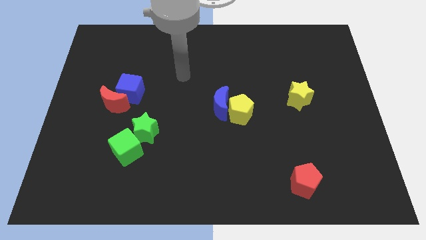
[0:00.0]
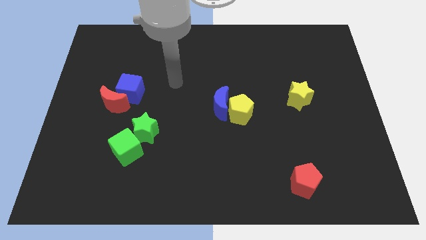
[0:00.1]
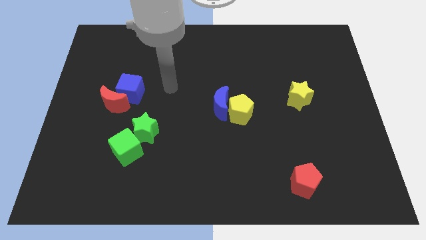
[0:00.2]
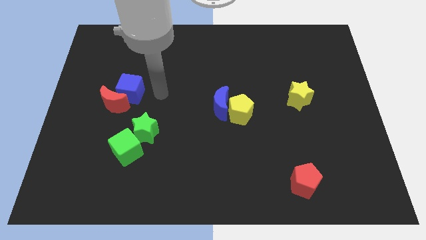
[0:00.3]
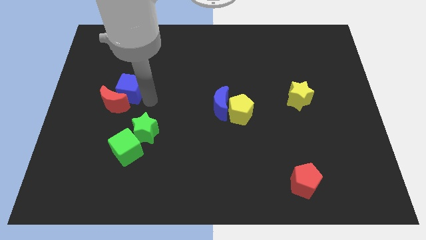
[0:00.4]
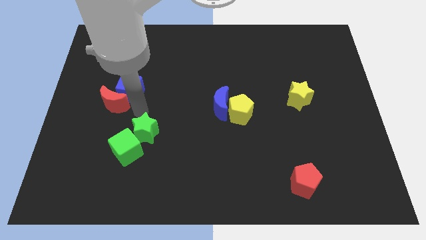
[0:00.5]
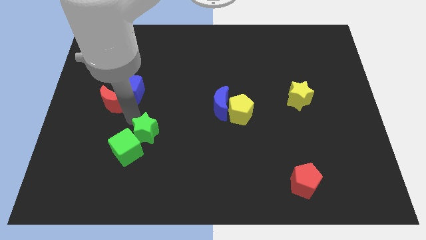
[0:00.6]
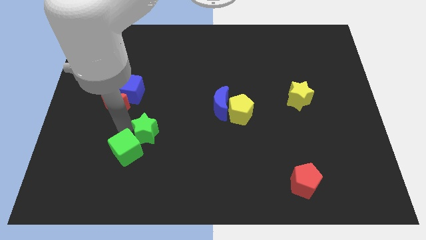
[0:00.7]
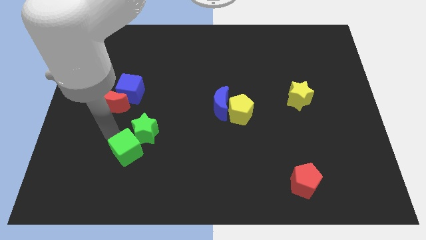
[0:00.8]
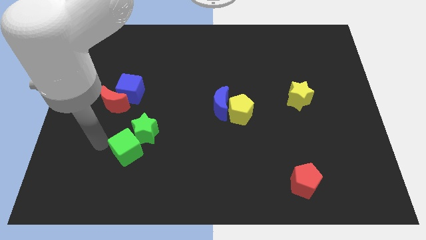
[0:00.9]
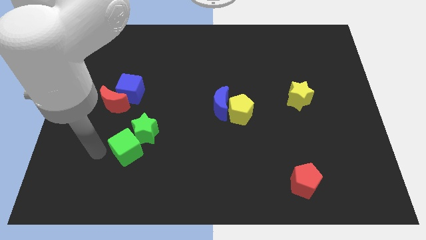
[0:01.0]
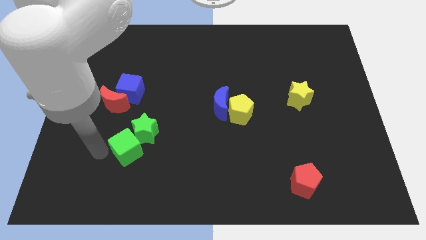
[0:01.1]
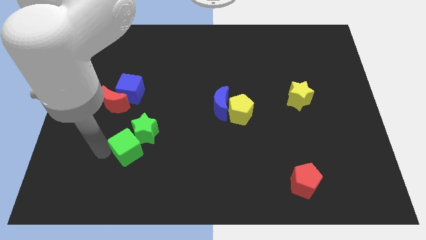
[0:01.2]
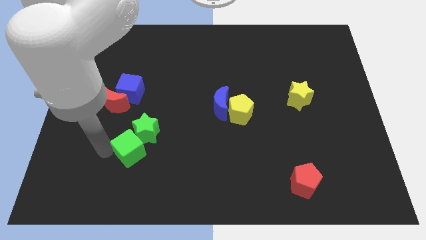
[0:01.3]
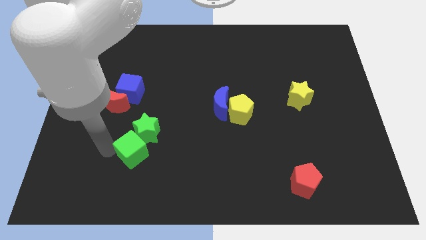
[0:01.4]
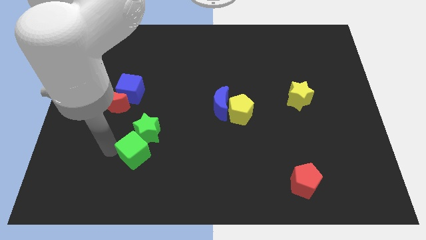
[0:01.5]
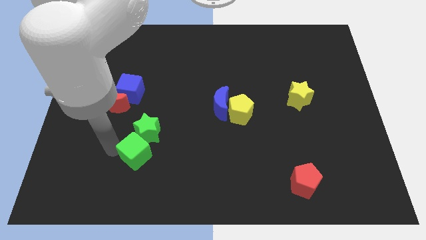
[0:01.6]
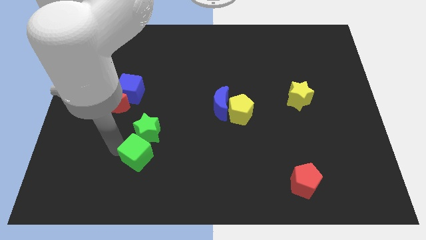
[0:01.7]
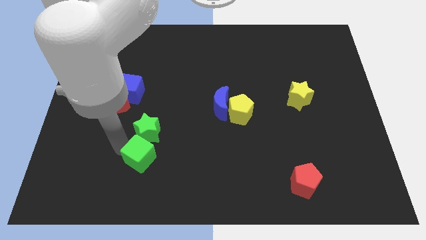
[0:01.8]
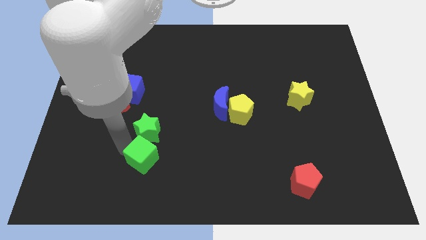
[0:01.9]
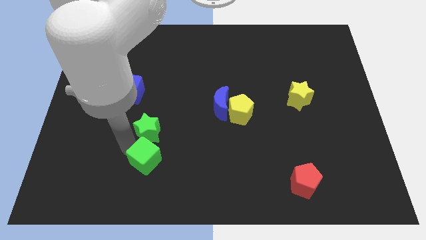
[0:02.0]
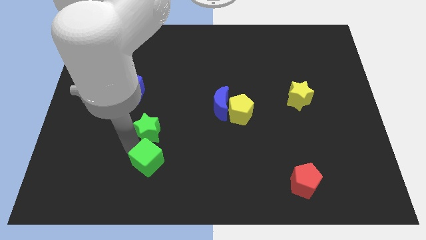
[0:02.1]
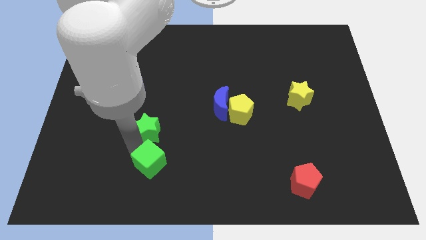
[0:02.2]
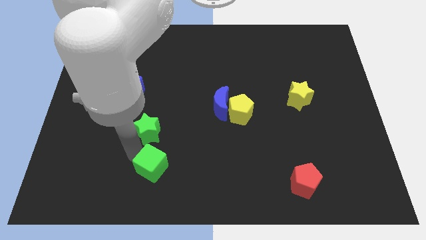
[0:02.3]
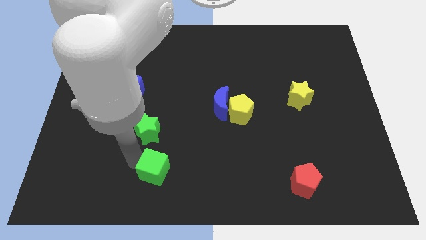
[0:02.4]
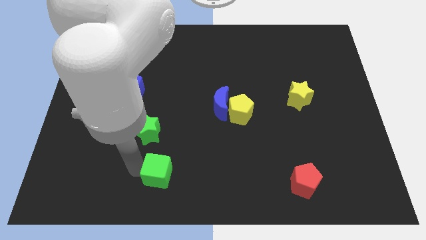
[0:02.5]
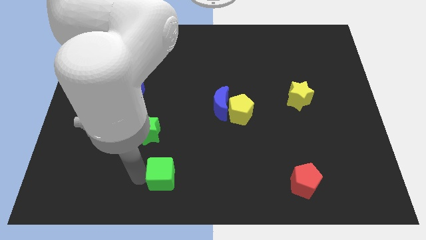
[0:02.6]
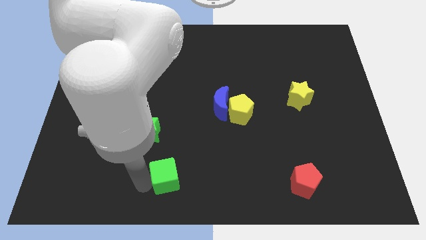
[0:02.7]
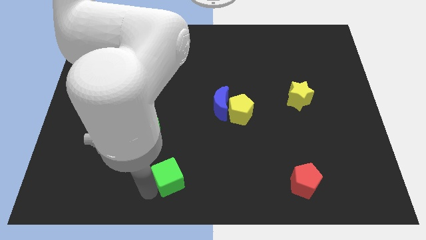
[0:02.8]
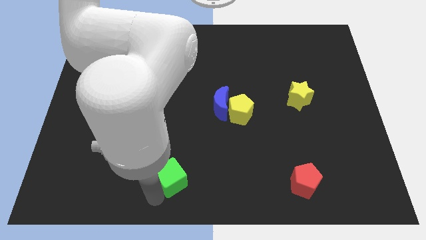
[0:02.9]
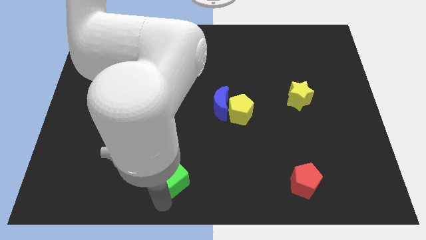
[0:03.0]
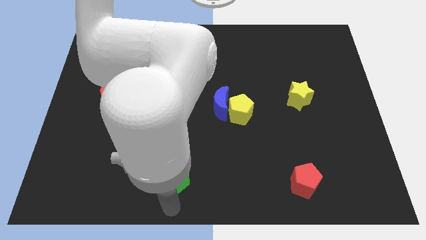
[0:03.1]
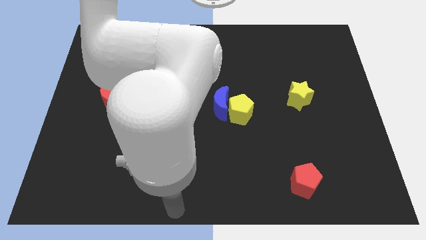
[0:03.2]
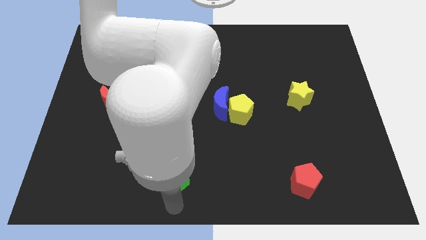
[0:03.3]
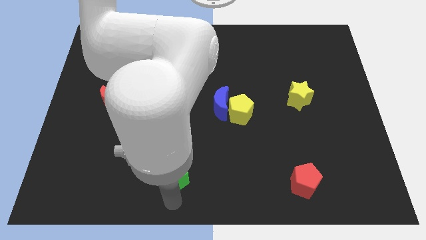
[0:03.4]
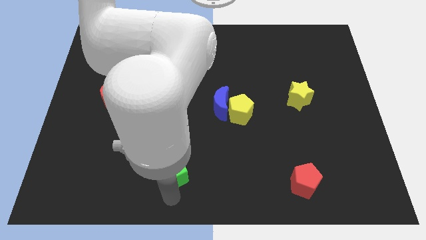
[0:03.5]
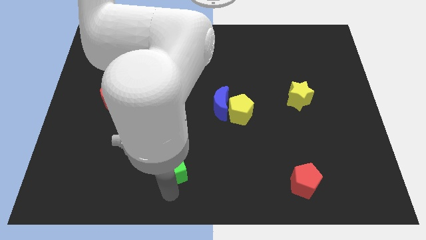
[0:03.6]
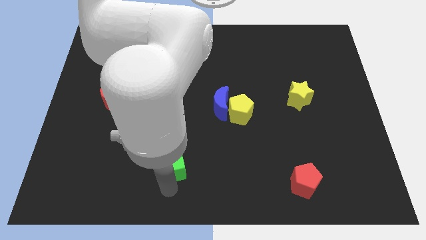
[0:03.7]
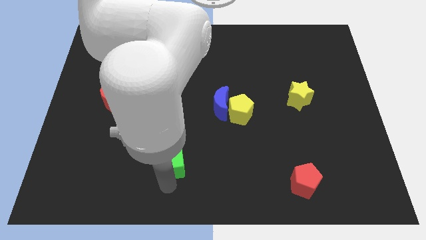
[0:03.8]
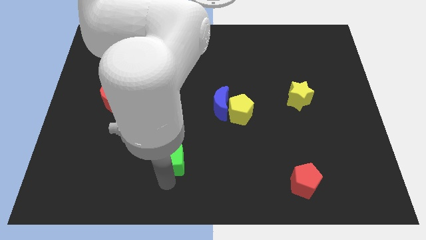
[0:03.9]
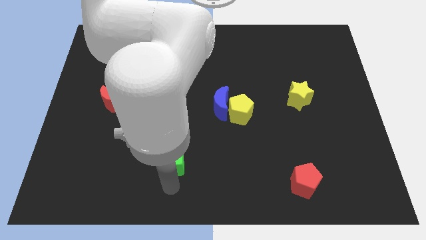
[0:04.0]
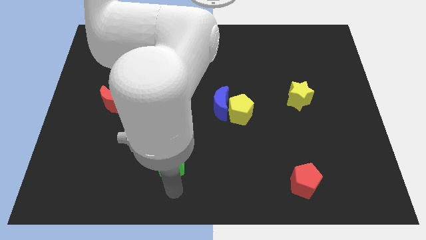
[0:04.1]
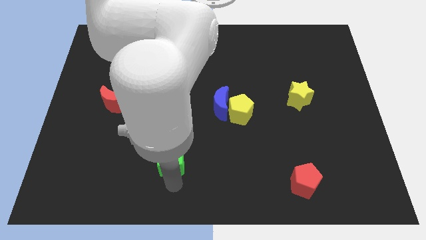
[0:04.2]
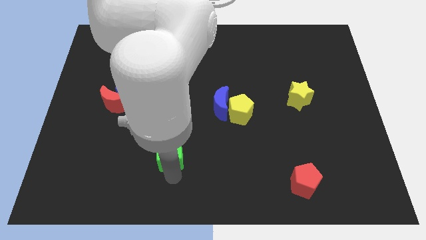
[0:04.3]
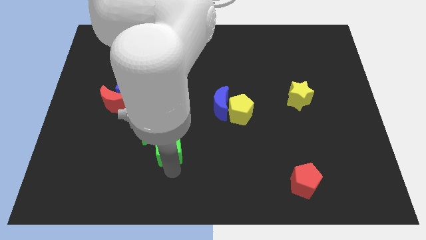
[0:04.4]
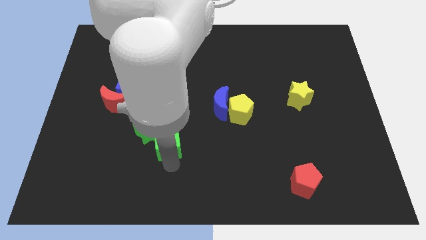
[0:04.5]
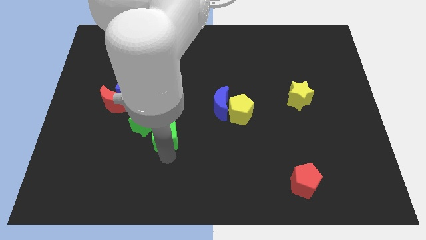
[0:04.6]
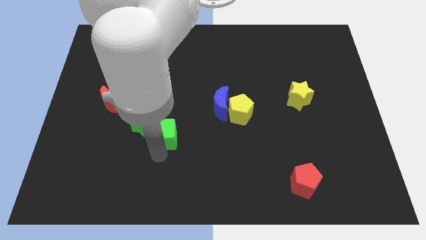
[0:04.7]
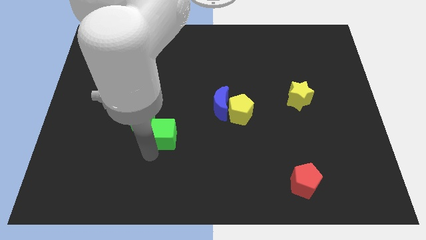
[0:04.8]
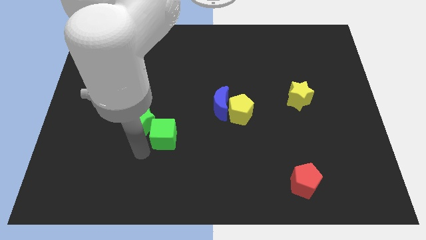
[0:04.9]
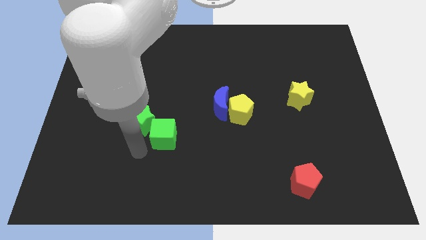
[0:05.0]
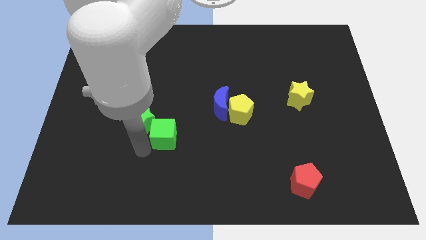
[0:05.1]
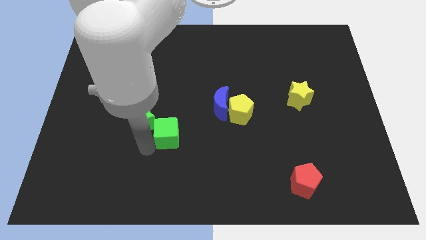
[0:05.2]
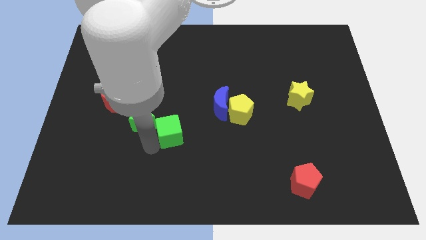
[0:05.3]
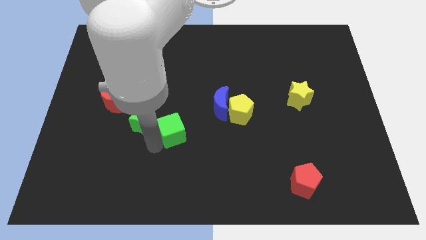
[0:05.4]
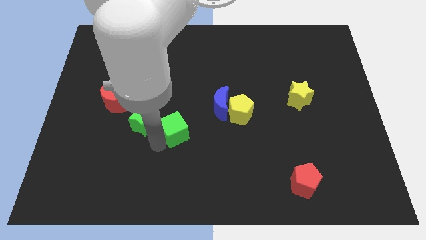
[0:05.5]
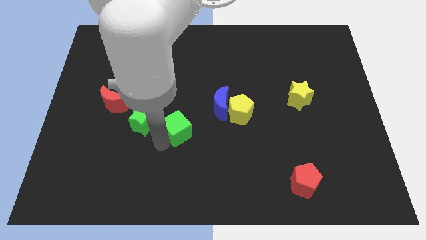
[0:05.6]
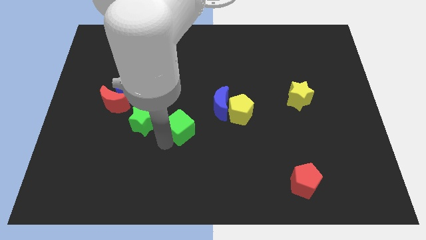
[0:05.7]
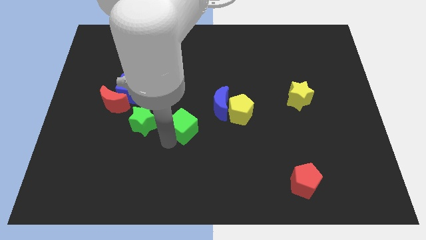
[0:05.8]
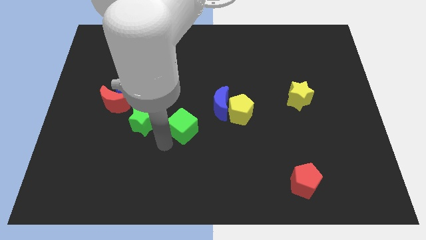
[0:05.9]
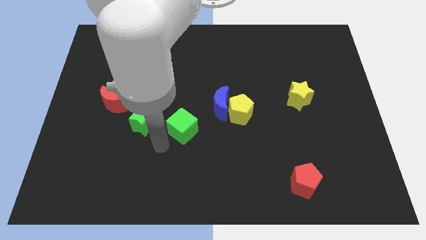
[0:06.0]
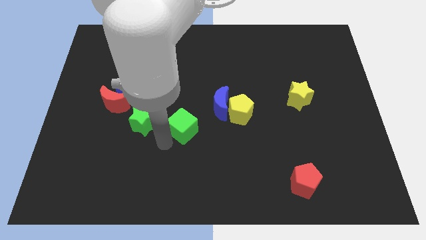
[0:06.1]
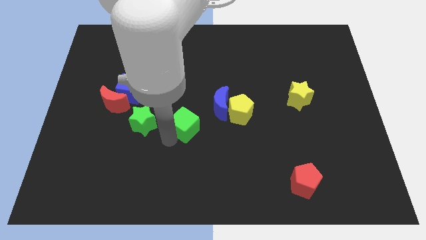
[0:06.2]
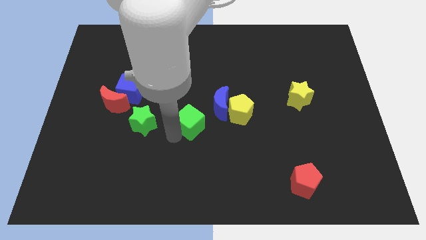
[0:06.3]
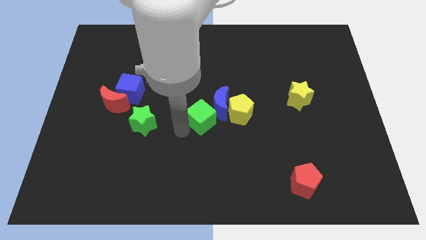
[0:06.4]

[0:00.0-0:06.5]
push the green cube close to the blue moon

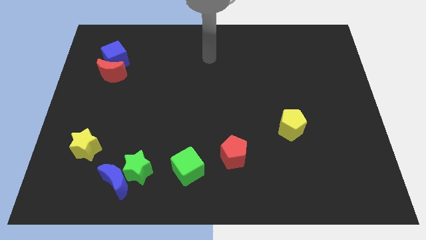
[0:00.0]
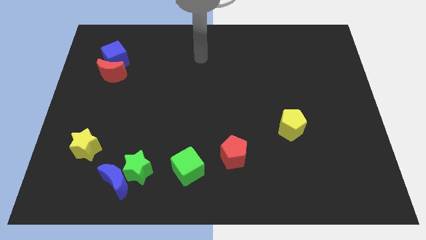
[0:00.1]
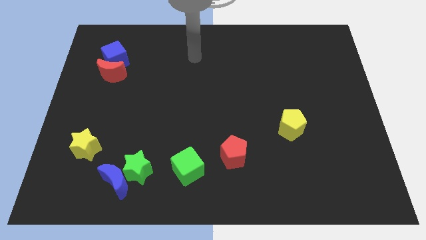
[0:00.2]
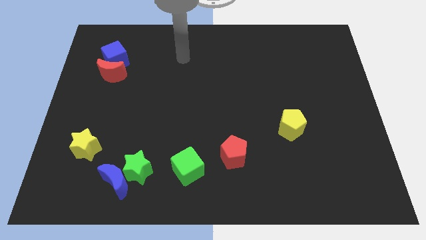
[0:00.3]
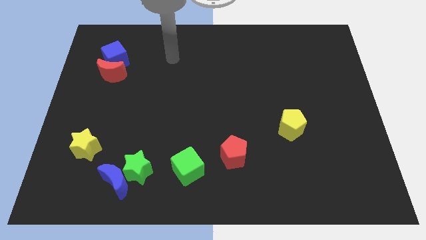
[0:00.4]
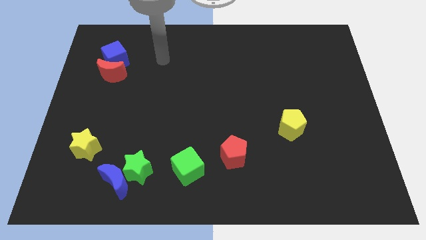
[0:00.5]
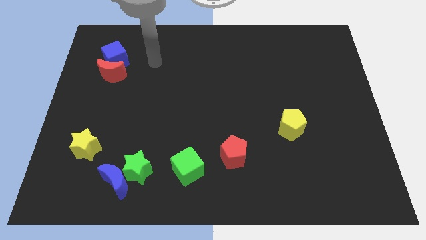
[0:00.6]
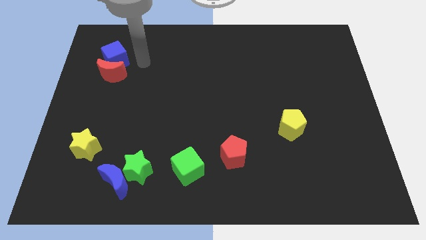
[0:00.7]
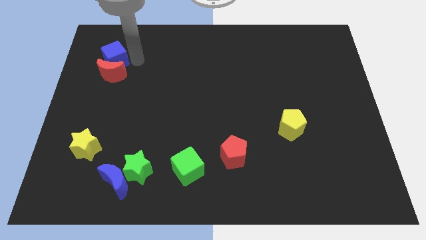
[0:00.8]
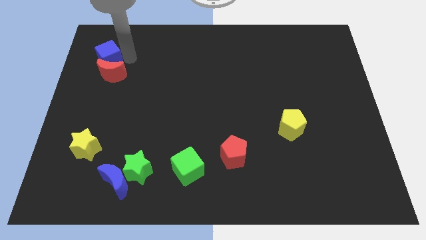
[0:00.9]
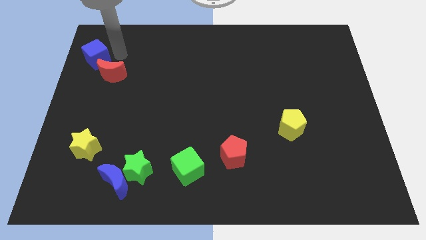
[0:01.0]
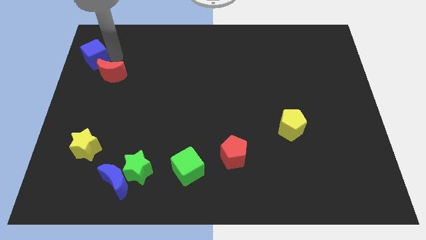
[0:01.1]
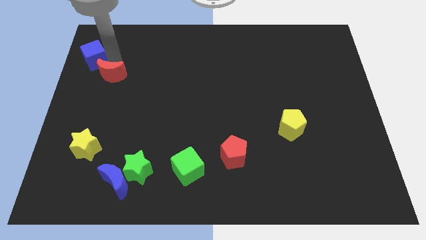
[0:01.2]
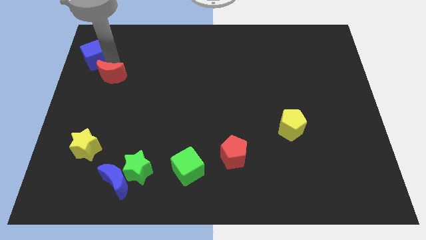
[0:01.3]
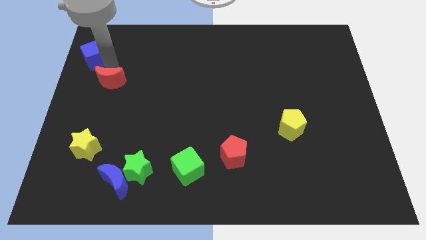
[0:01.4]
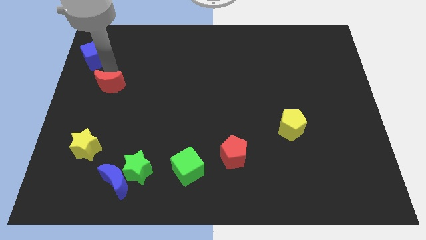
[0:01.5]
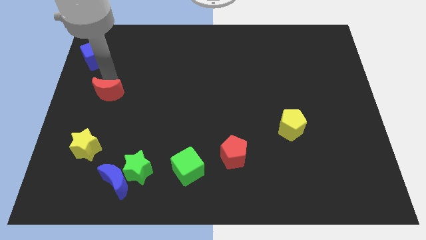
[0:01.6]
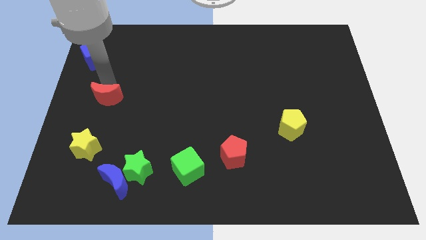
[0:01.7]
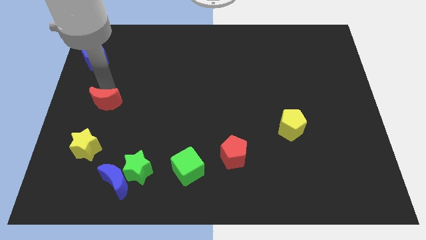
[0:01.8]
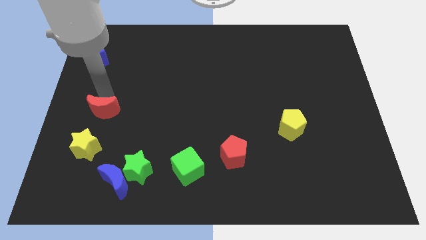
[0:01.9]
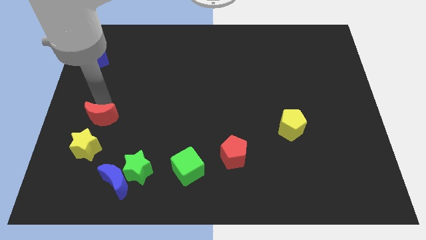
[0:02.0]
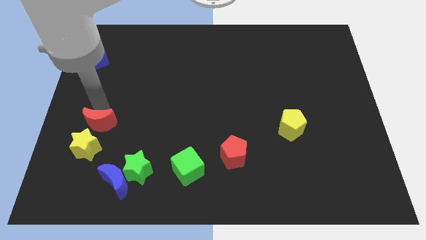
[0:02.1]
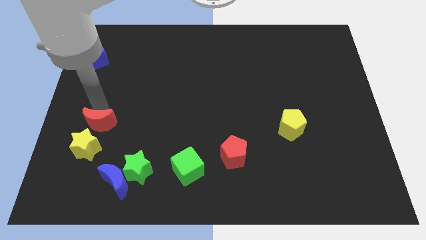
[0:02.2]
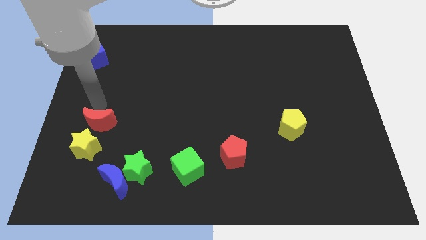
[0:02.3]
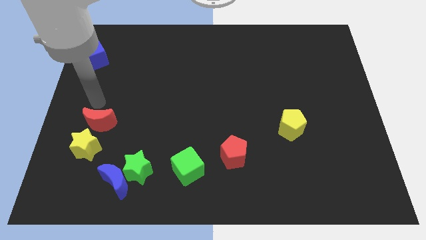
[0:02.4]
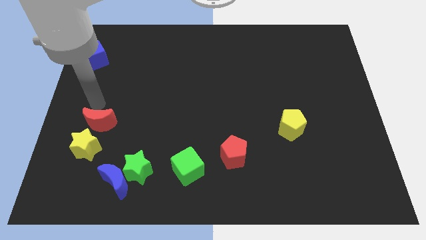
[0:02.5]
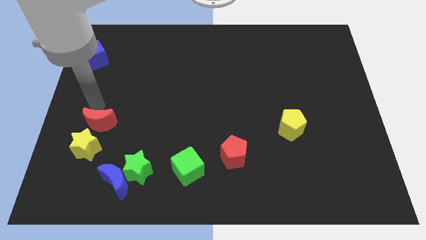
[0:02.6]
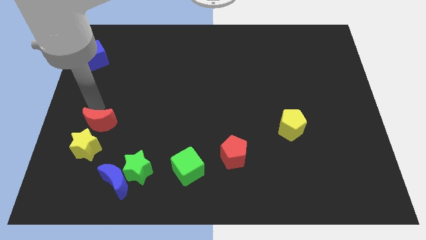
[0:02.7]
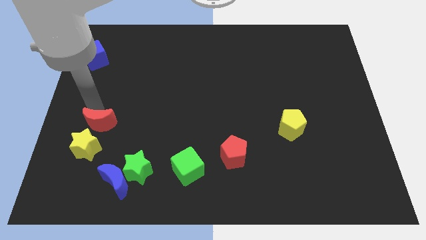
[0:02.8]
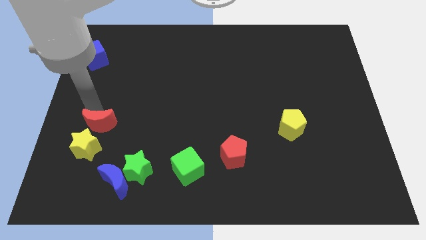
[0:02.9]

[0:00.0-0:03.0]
push the red moon towards the yellow star
